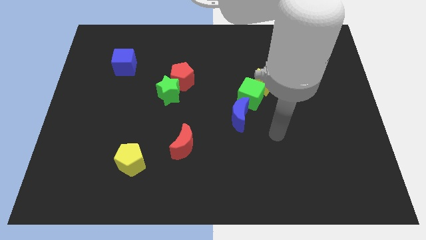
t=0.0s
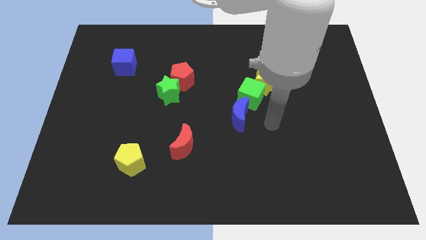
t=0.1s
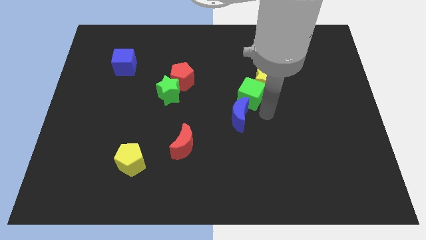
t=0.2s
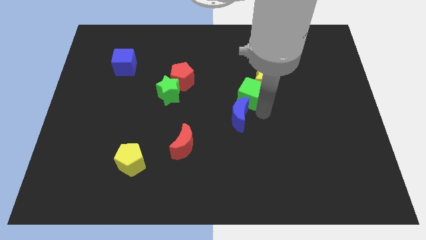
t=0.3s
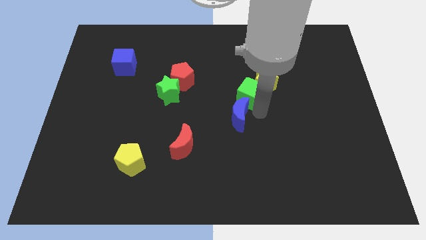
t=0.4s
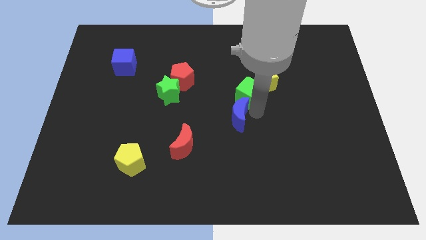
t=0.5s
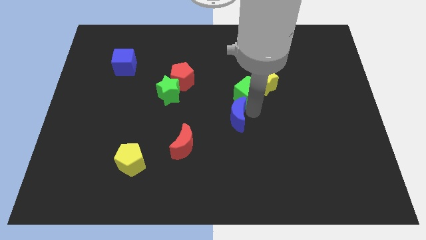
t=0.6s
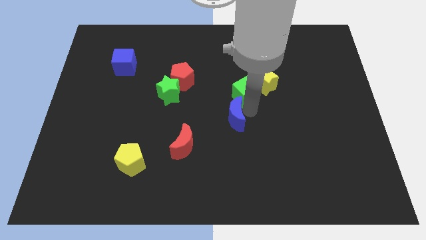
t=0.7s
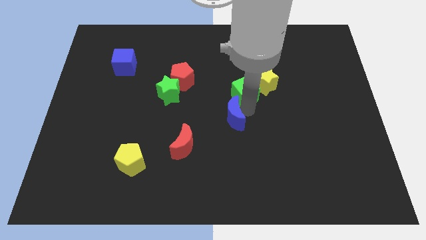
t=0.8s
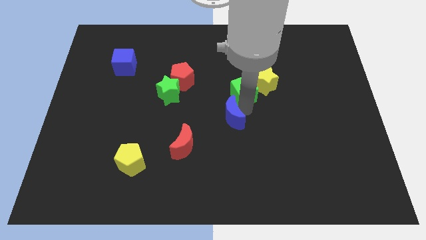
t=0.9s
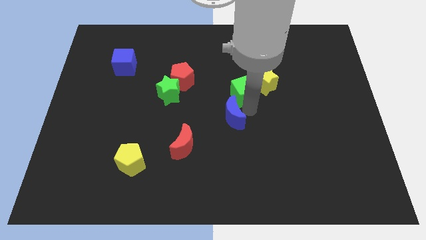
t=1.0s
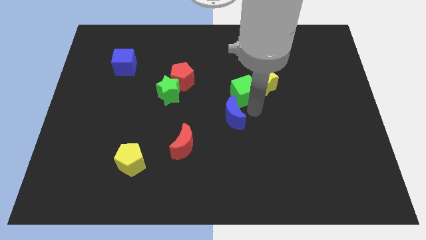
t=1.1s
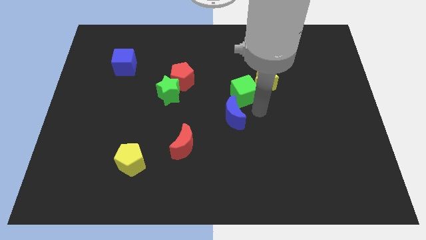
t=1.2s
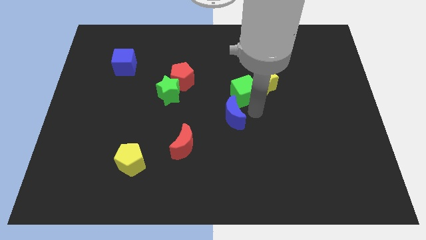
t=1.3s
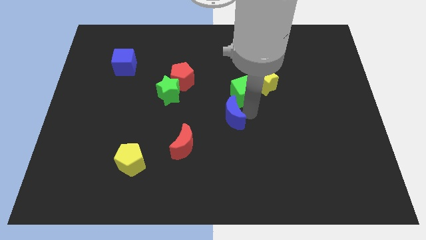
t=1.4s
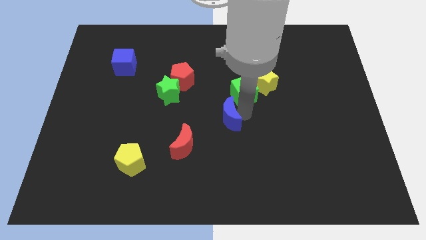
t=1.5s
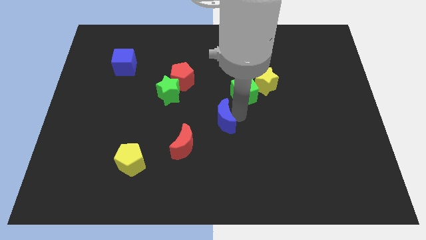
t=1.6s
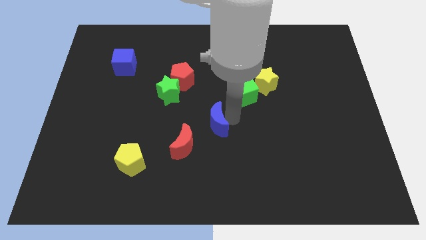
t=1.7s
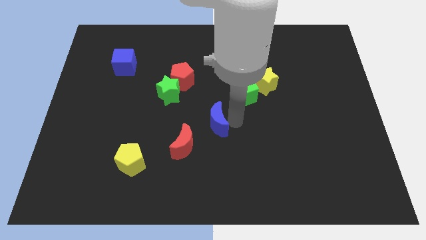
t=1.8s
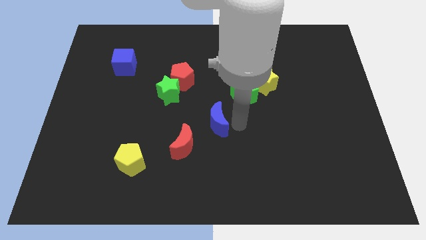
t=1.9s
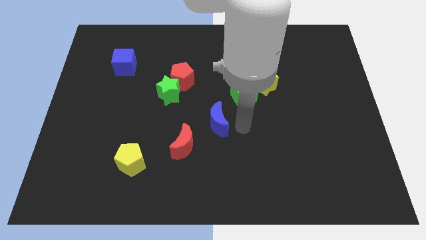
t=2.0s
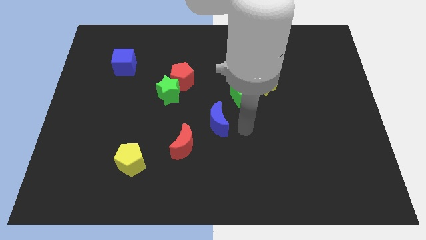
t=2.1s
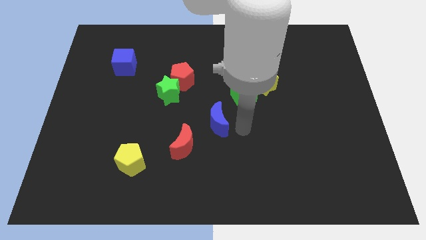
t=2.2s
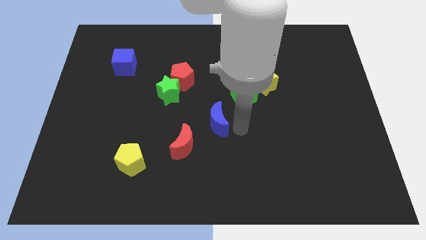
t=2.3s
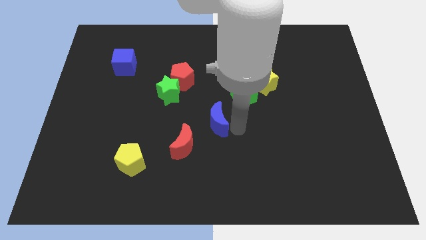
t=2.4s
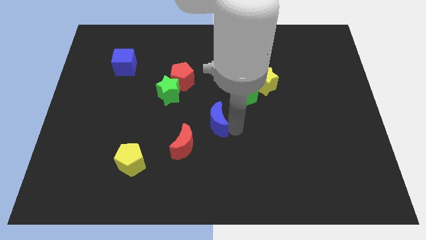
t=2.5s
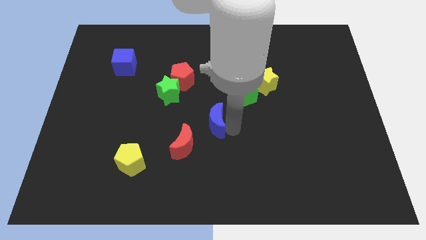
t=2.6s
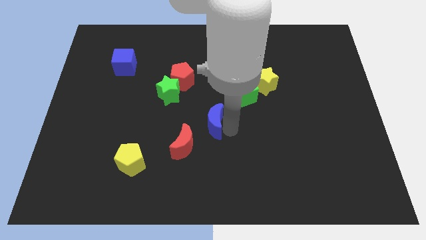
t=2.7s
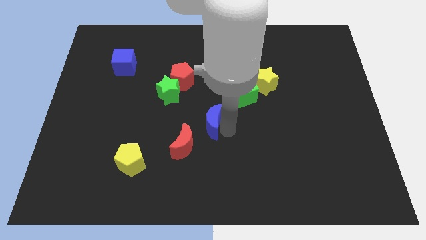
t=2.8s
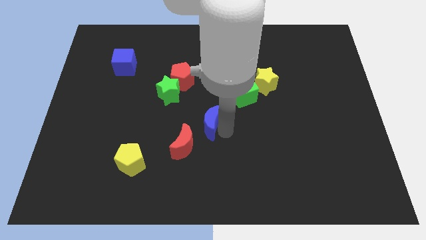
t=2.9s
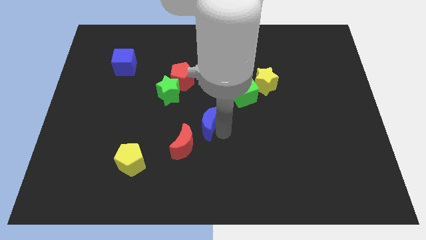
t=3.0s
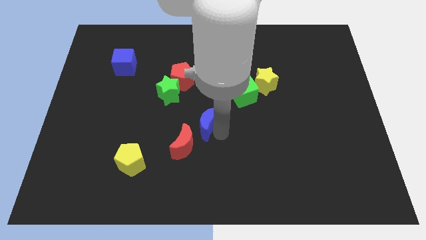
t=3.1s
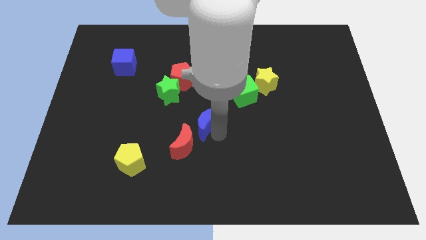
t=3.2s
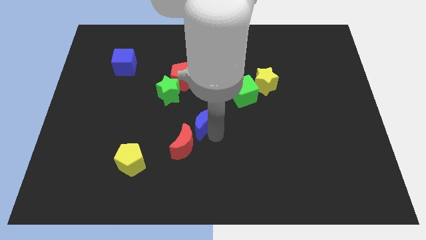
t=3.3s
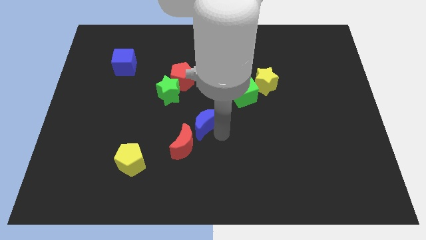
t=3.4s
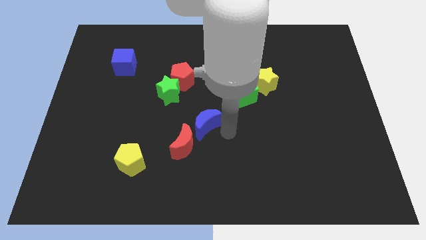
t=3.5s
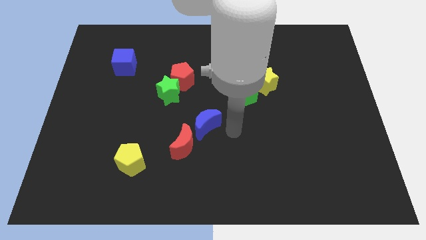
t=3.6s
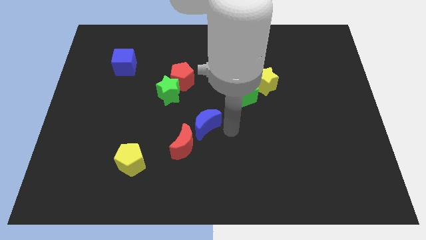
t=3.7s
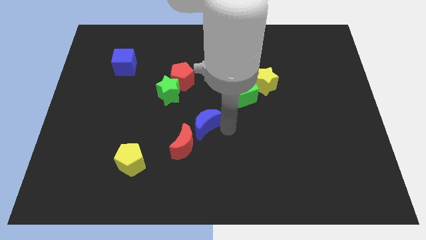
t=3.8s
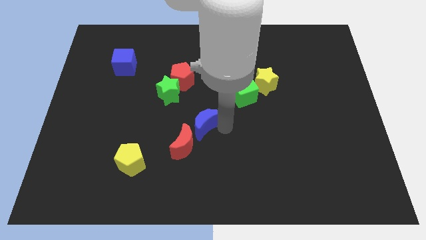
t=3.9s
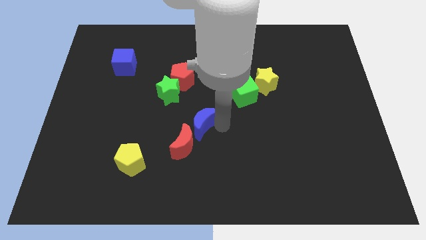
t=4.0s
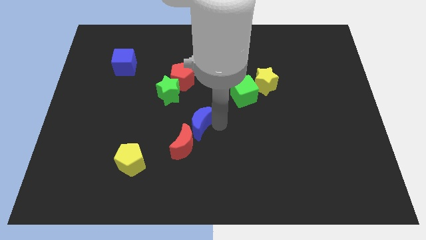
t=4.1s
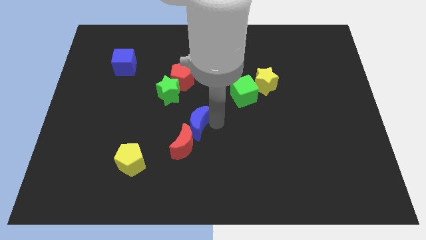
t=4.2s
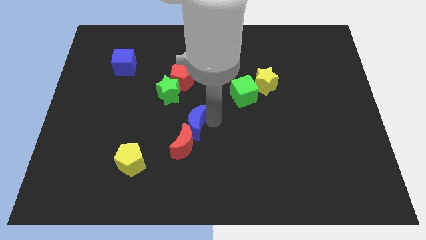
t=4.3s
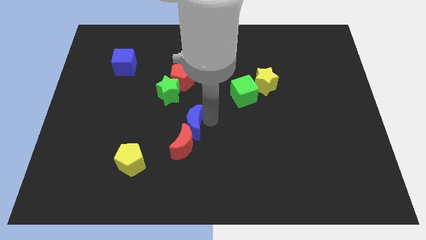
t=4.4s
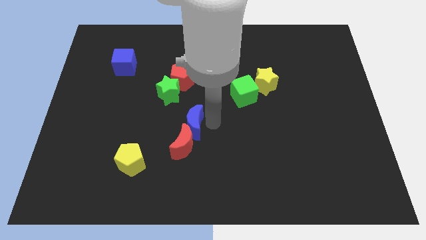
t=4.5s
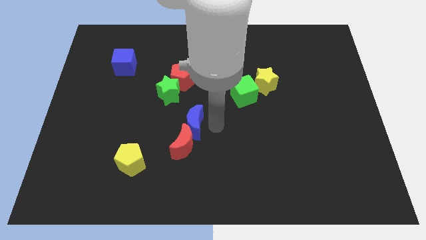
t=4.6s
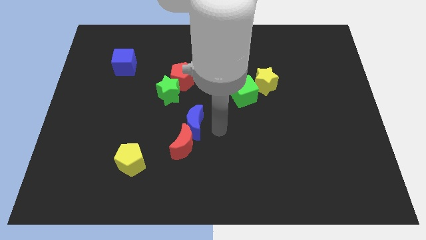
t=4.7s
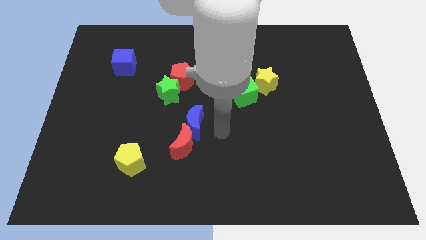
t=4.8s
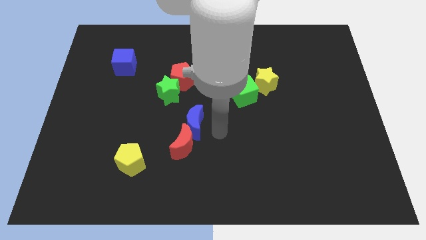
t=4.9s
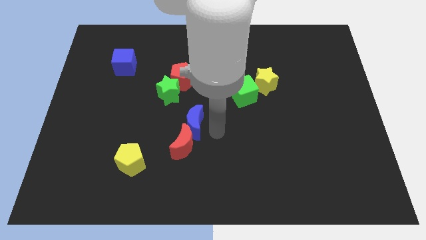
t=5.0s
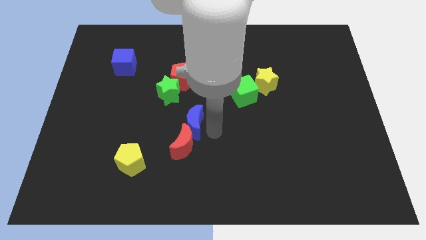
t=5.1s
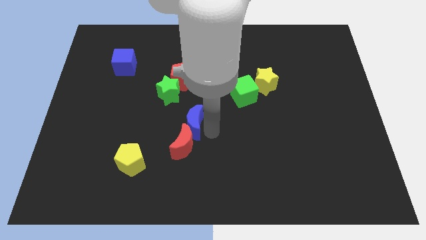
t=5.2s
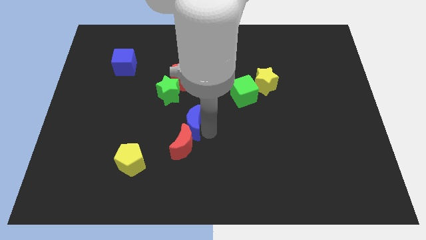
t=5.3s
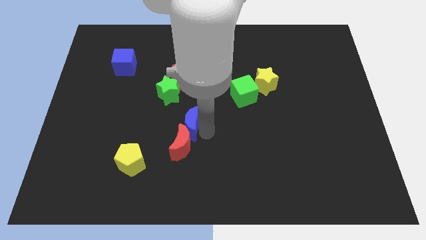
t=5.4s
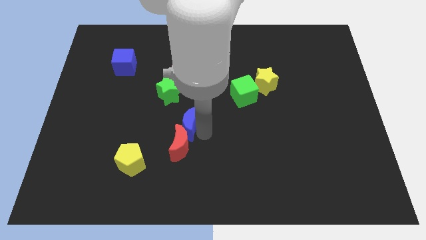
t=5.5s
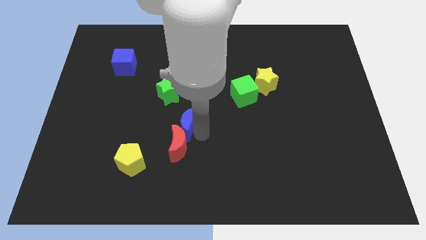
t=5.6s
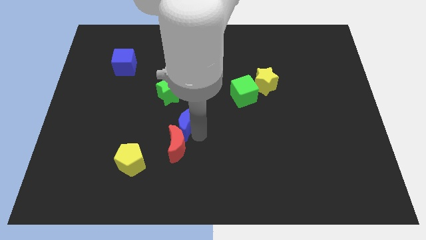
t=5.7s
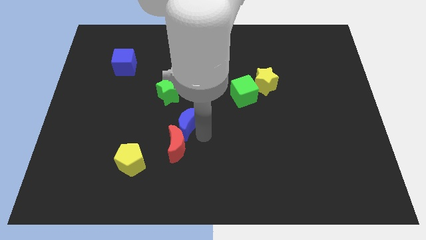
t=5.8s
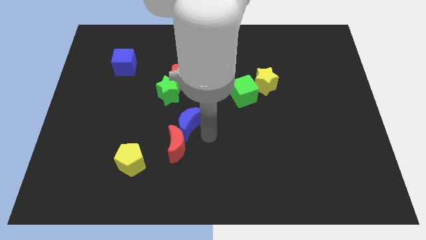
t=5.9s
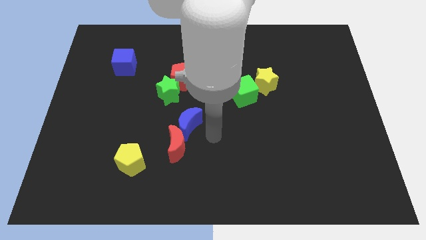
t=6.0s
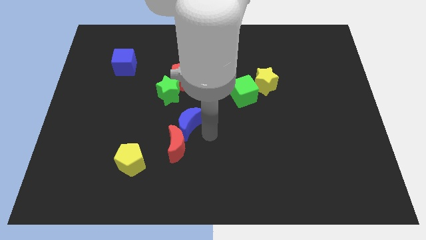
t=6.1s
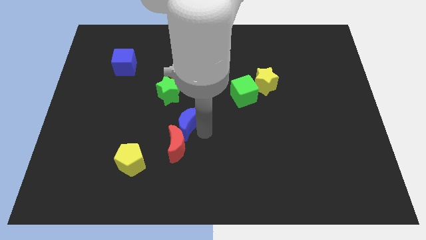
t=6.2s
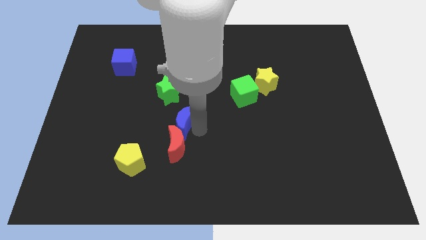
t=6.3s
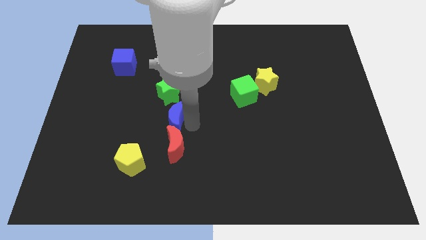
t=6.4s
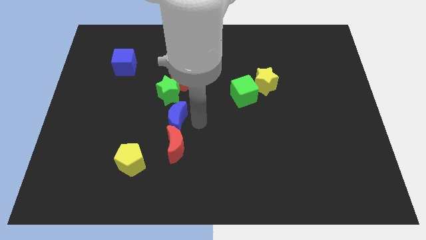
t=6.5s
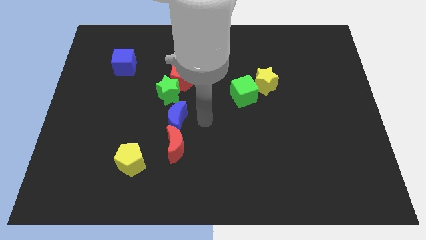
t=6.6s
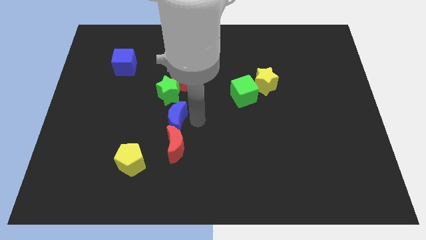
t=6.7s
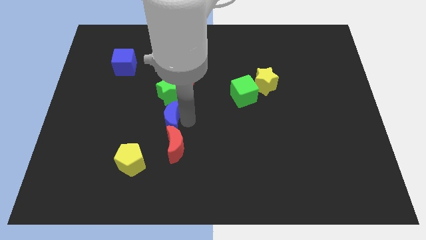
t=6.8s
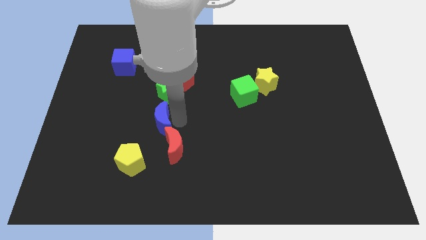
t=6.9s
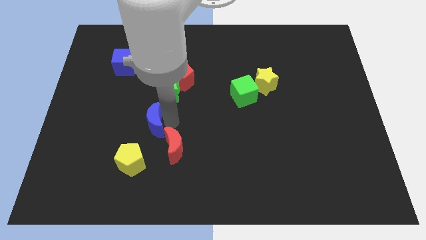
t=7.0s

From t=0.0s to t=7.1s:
push the blue moon to the top of the yellow pentagon

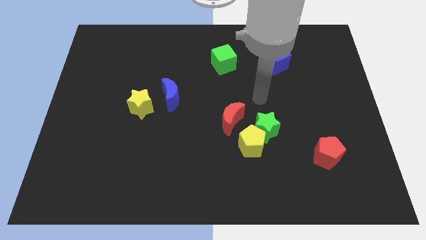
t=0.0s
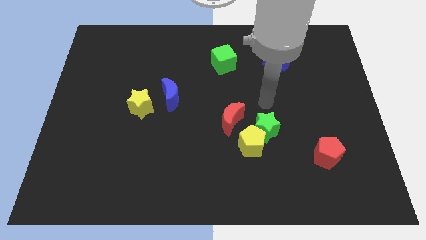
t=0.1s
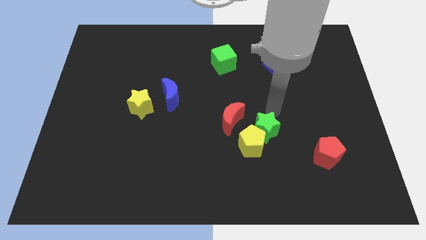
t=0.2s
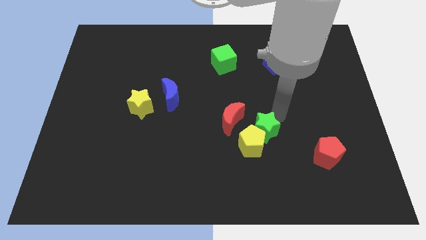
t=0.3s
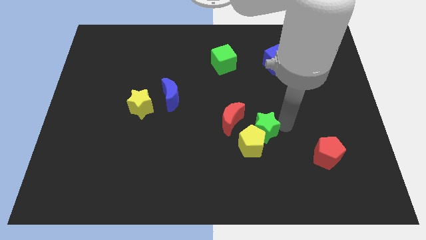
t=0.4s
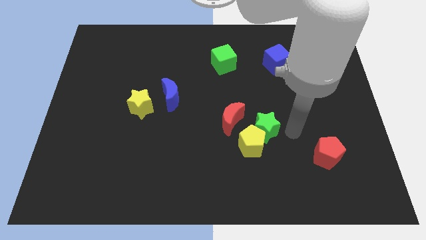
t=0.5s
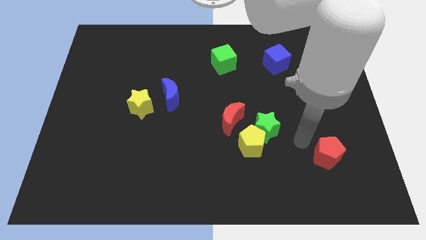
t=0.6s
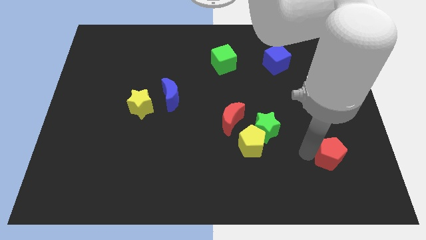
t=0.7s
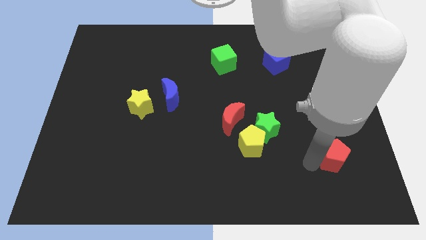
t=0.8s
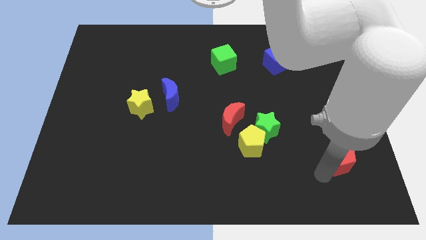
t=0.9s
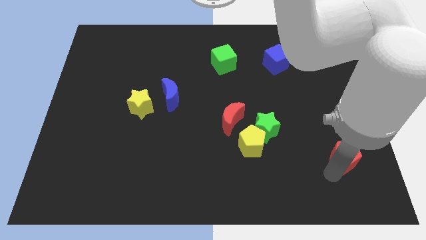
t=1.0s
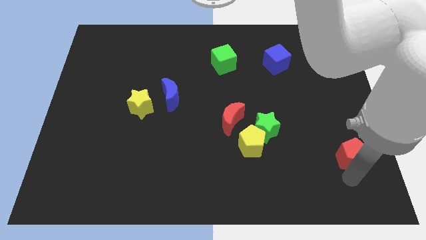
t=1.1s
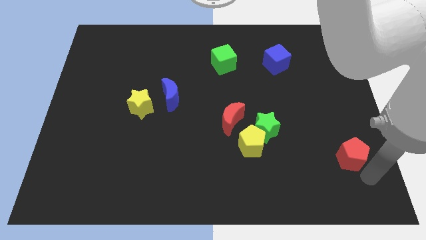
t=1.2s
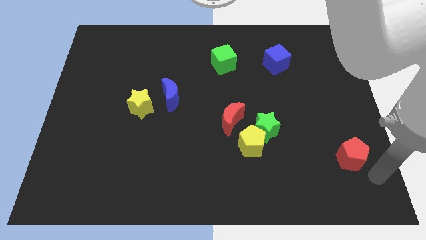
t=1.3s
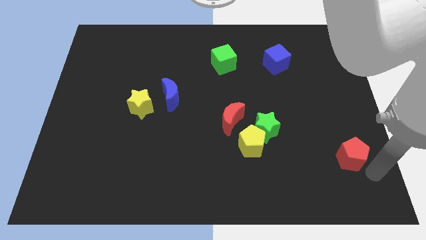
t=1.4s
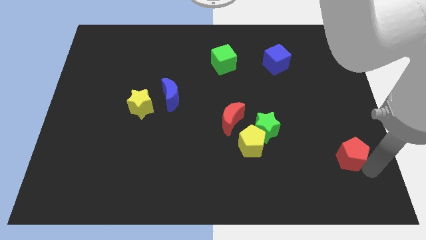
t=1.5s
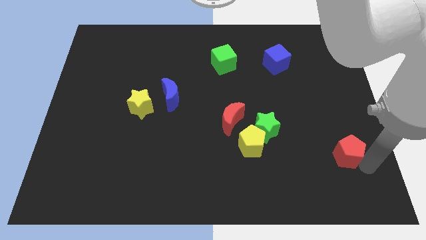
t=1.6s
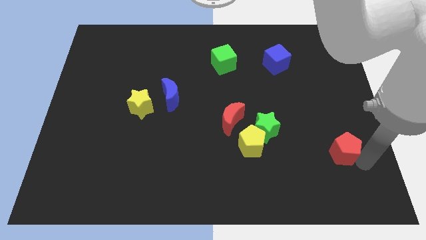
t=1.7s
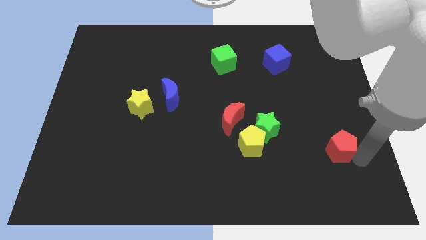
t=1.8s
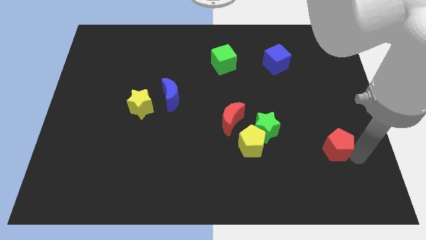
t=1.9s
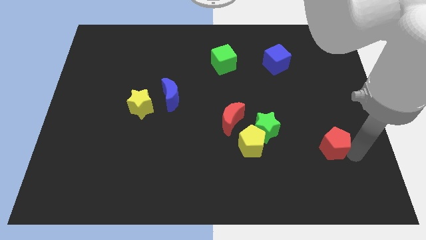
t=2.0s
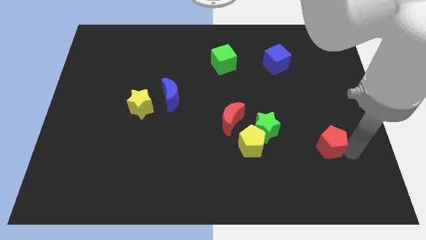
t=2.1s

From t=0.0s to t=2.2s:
slide the red pentagon to the right side of the green star
